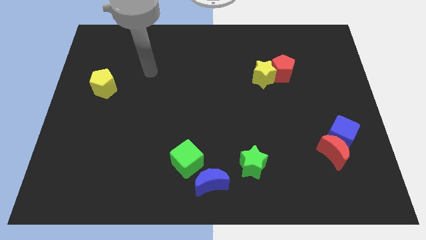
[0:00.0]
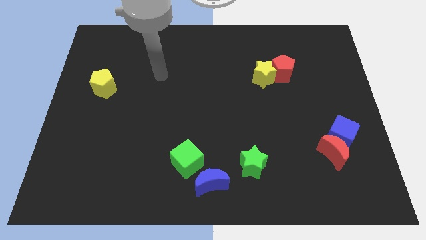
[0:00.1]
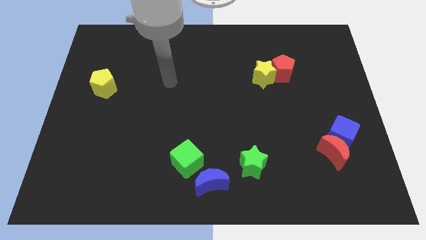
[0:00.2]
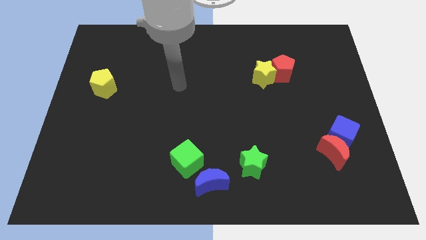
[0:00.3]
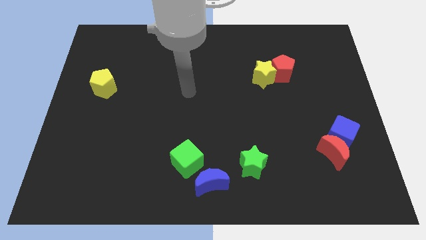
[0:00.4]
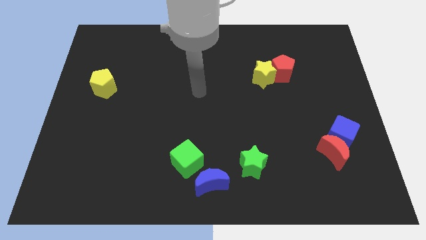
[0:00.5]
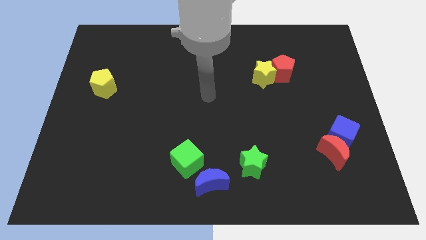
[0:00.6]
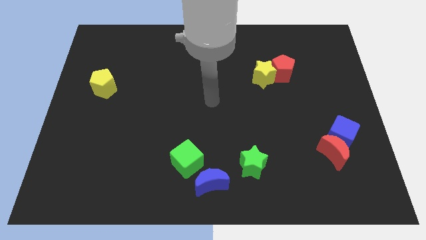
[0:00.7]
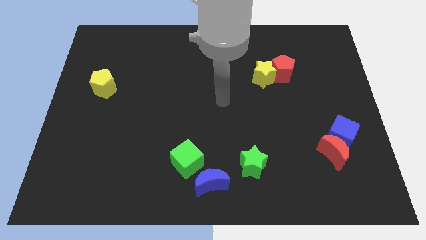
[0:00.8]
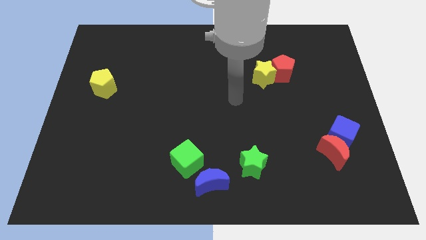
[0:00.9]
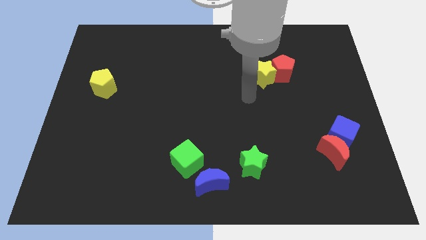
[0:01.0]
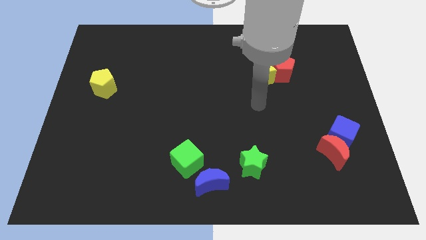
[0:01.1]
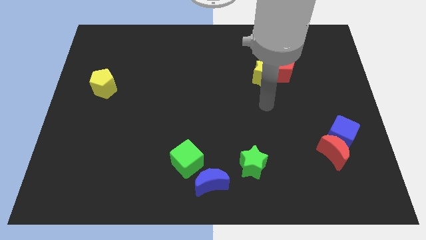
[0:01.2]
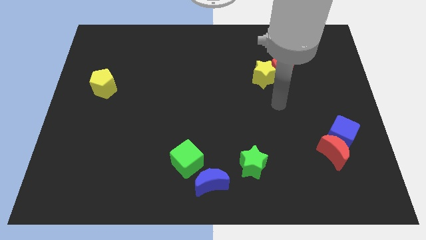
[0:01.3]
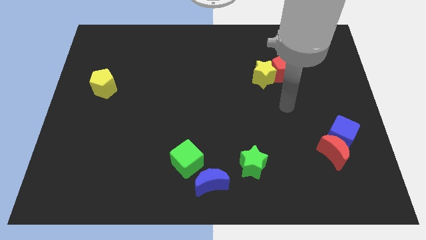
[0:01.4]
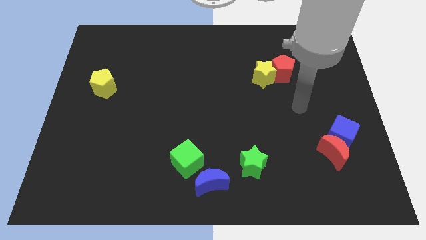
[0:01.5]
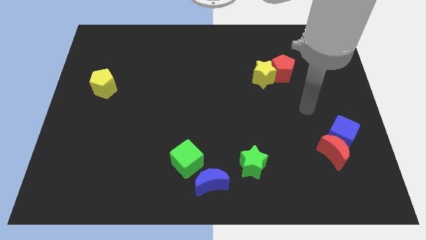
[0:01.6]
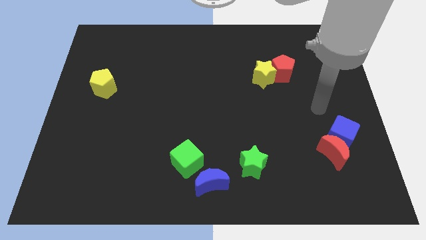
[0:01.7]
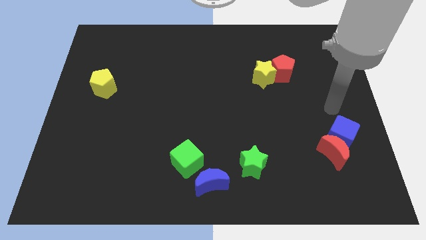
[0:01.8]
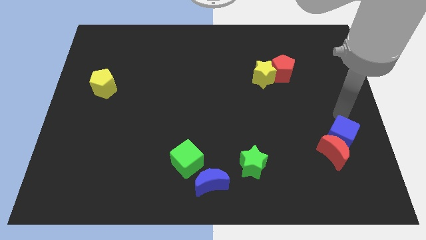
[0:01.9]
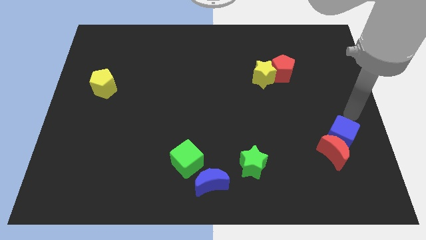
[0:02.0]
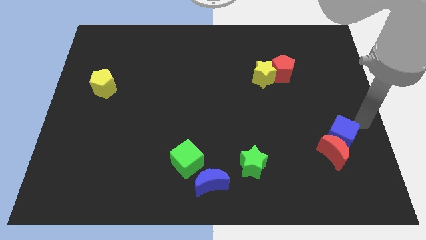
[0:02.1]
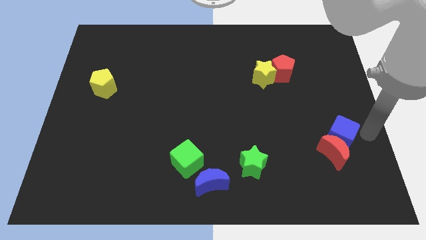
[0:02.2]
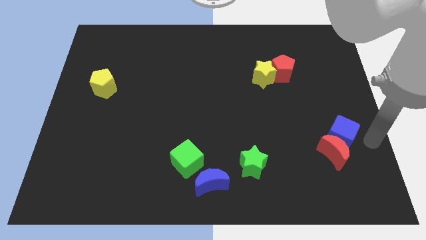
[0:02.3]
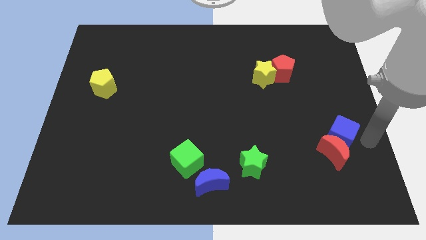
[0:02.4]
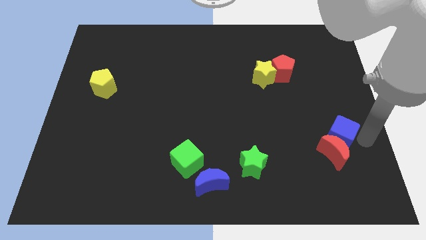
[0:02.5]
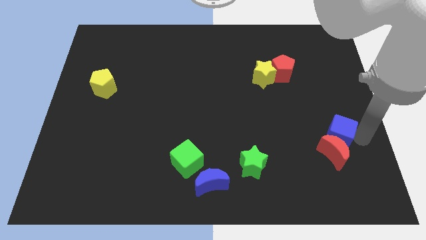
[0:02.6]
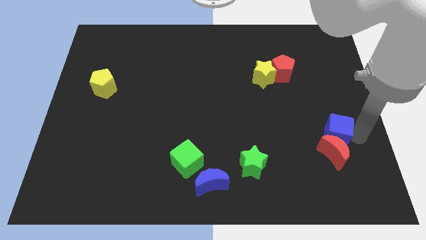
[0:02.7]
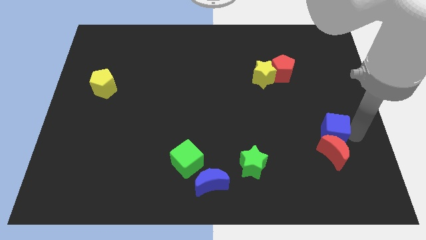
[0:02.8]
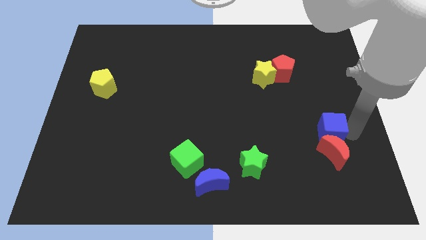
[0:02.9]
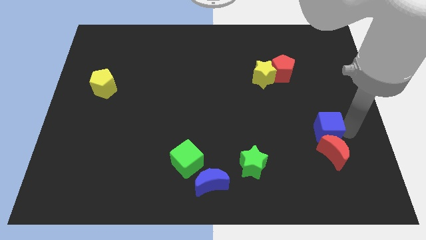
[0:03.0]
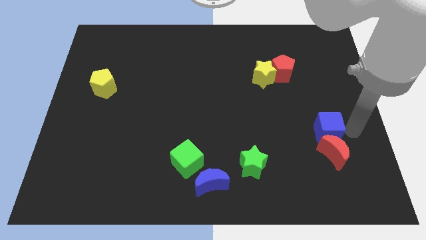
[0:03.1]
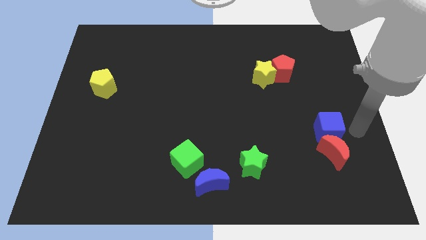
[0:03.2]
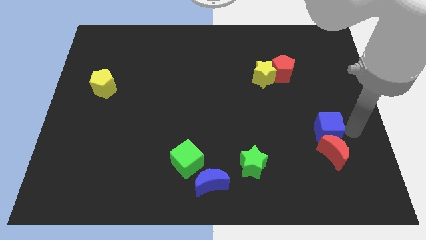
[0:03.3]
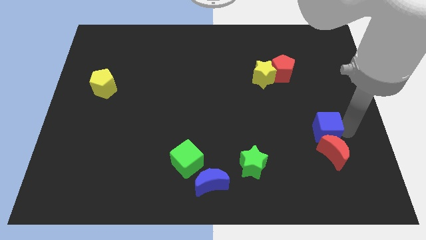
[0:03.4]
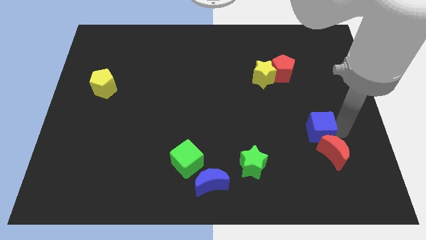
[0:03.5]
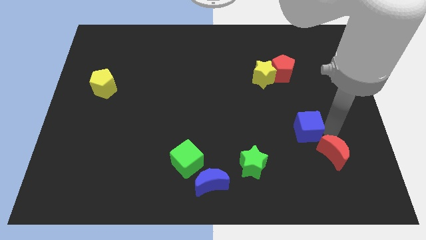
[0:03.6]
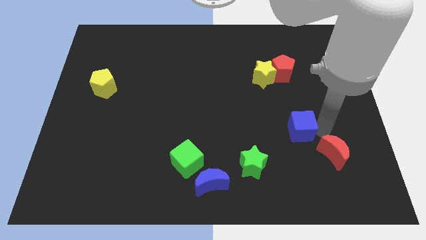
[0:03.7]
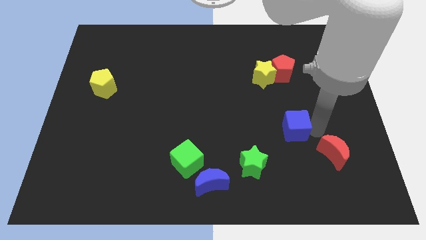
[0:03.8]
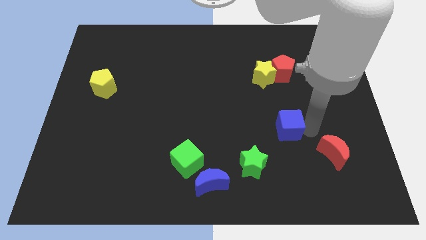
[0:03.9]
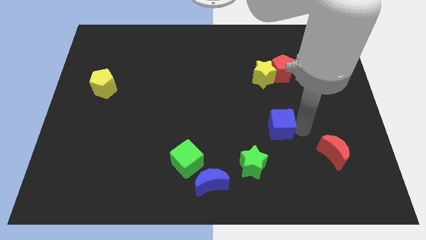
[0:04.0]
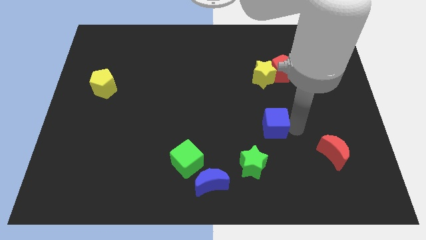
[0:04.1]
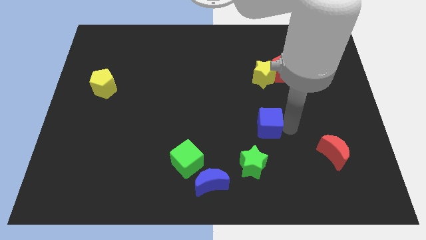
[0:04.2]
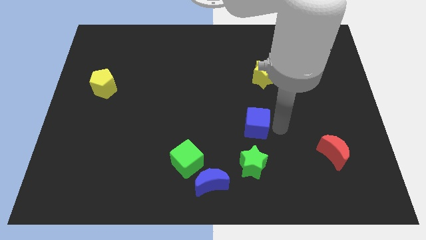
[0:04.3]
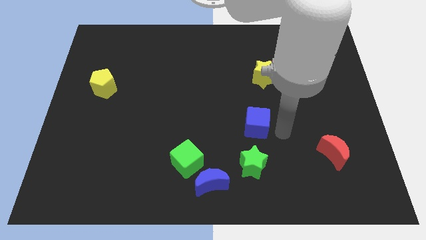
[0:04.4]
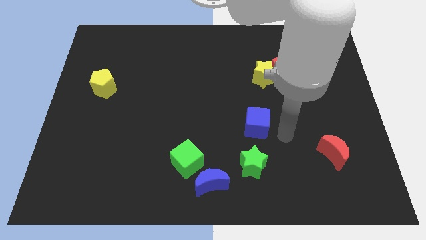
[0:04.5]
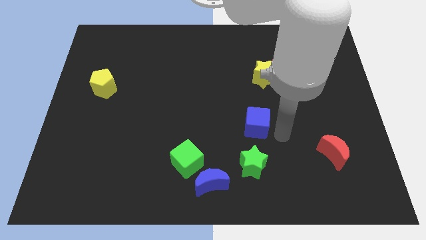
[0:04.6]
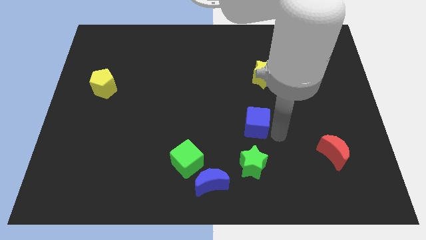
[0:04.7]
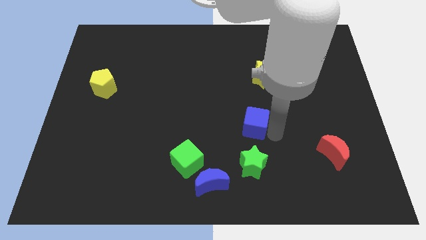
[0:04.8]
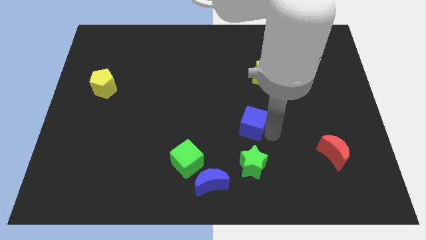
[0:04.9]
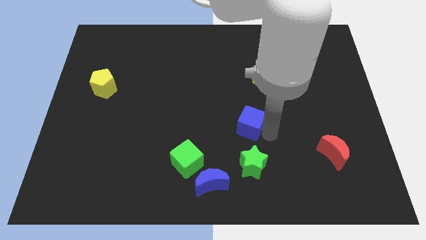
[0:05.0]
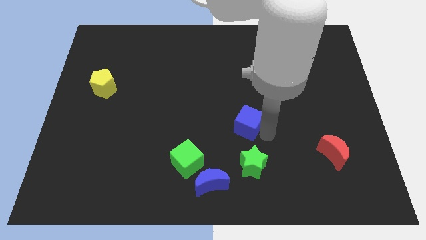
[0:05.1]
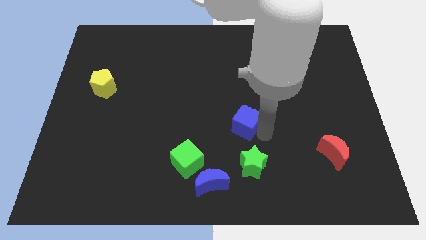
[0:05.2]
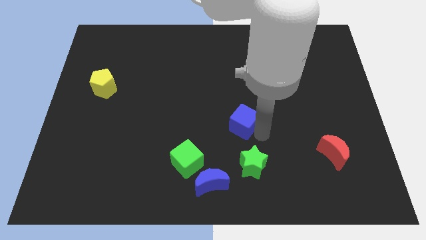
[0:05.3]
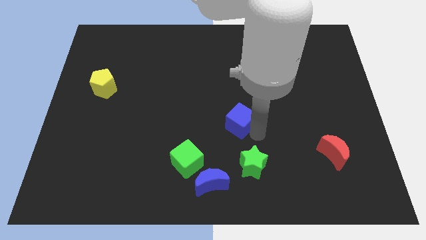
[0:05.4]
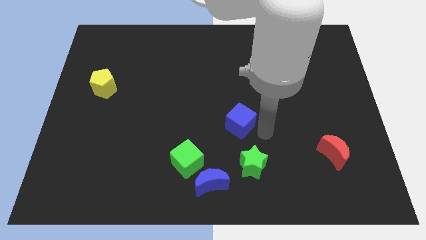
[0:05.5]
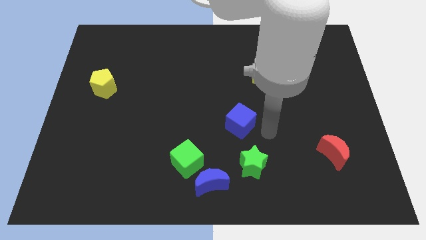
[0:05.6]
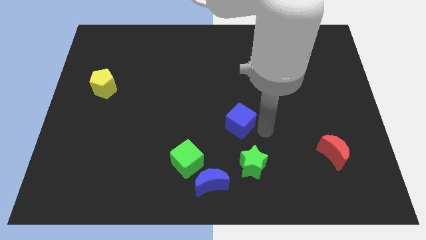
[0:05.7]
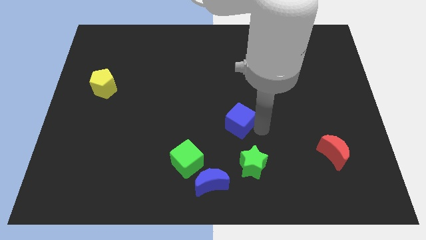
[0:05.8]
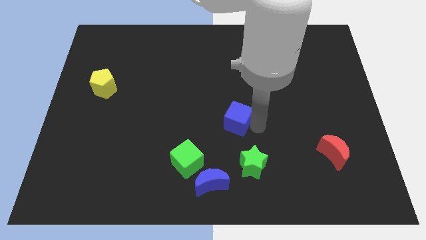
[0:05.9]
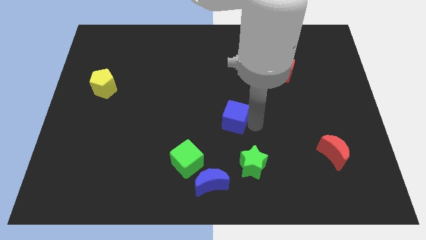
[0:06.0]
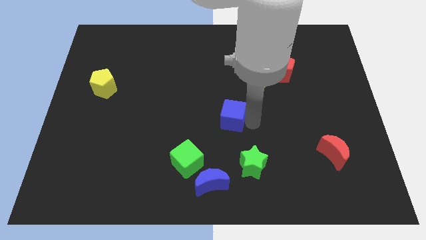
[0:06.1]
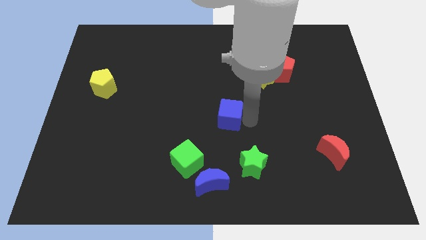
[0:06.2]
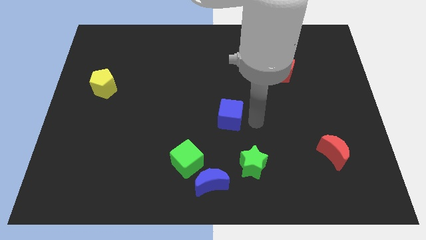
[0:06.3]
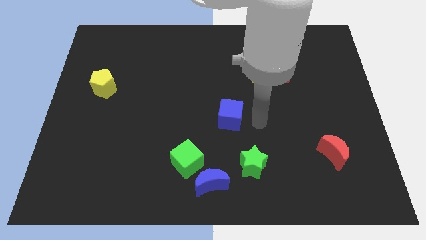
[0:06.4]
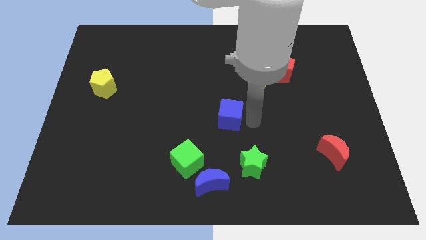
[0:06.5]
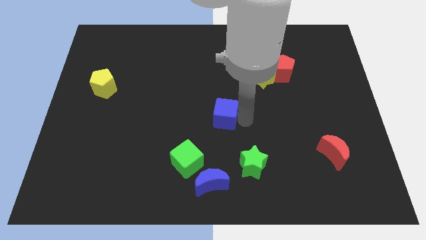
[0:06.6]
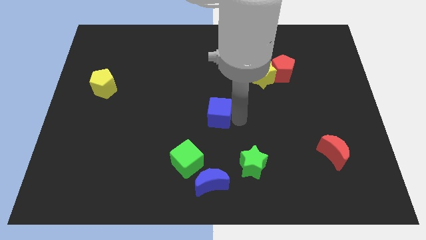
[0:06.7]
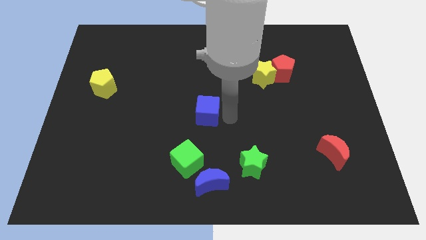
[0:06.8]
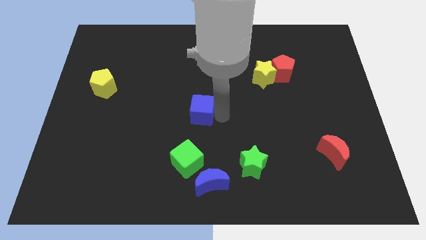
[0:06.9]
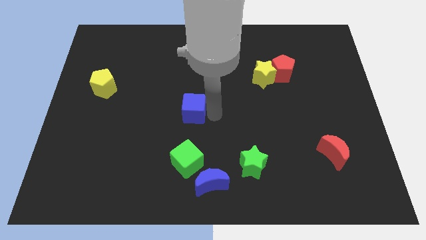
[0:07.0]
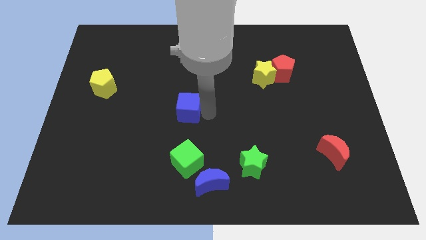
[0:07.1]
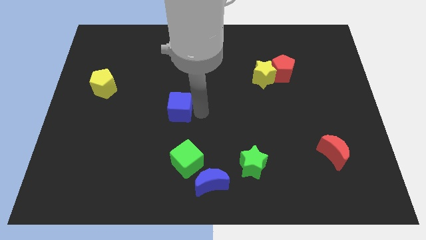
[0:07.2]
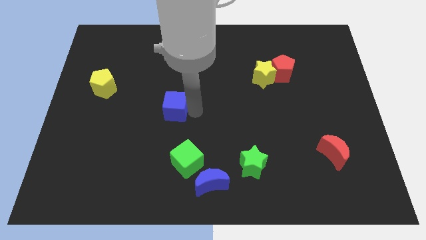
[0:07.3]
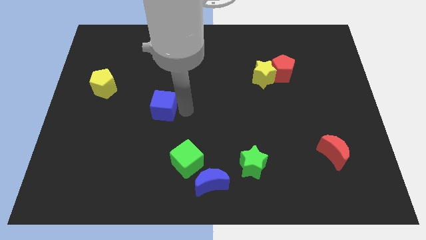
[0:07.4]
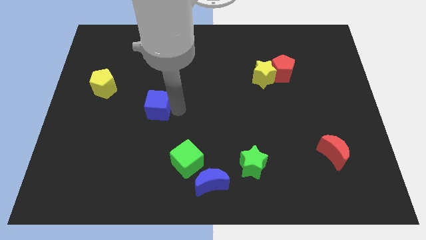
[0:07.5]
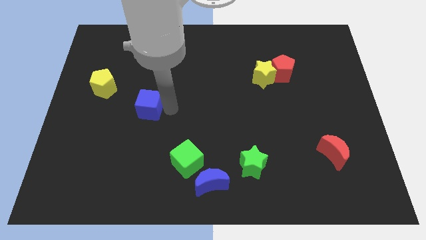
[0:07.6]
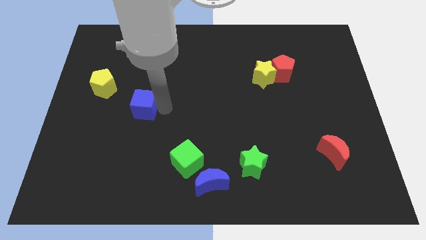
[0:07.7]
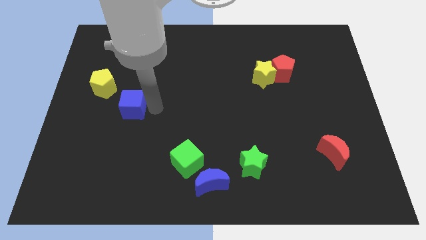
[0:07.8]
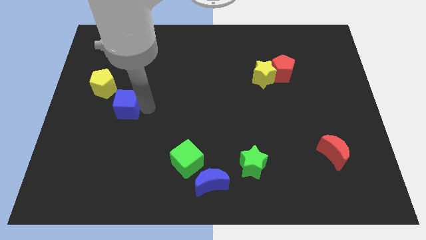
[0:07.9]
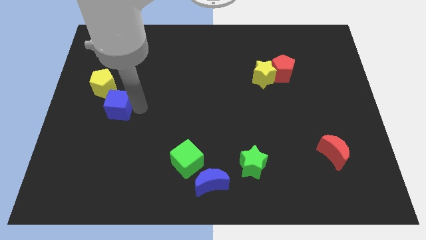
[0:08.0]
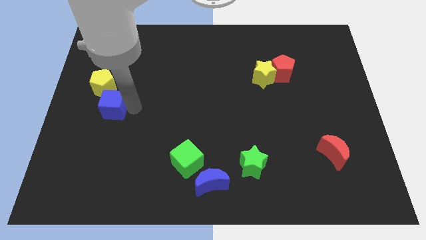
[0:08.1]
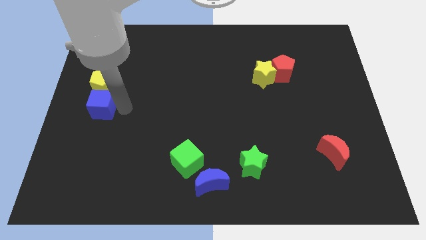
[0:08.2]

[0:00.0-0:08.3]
put the blue cube to the left side
